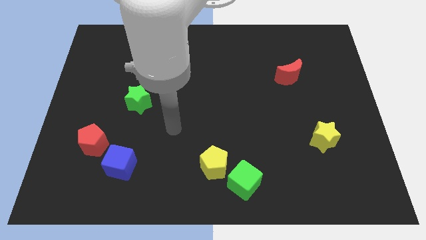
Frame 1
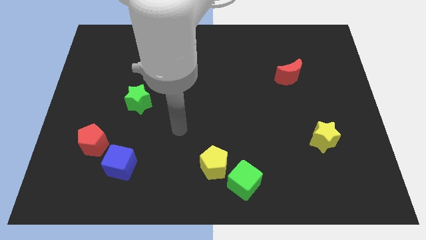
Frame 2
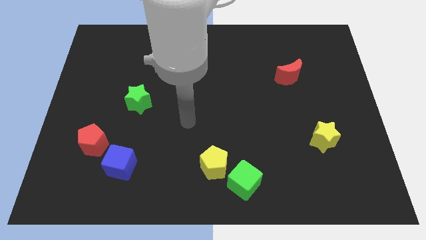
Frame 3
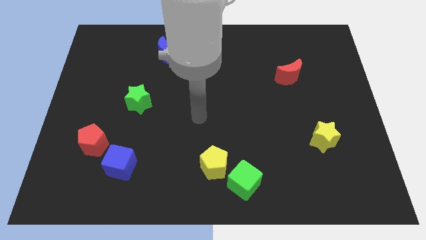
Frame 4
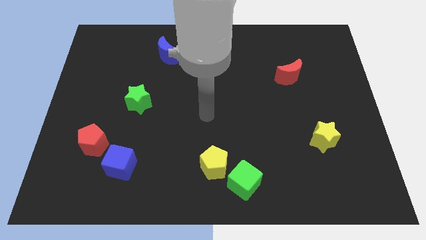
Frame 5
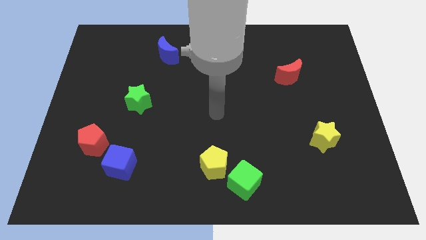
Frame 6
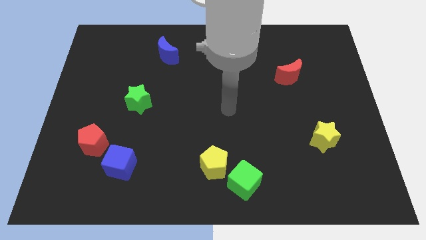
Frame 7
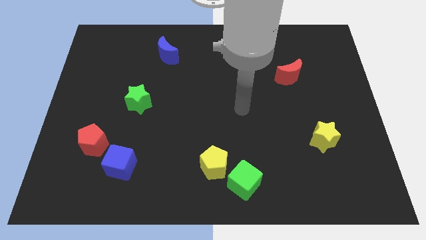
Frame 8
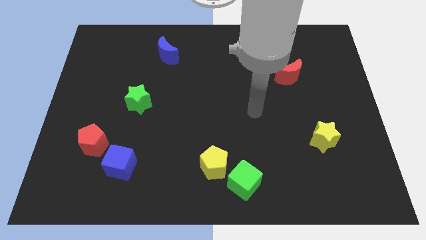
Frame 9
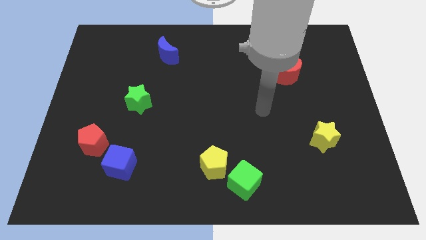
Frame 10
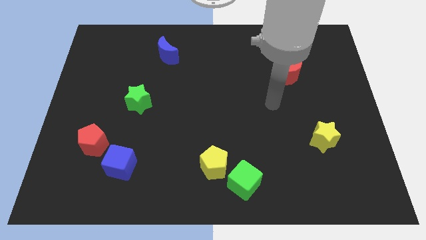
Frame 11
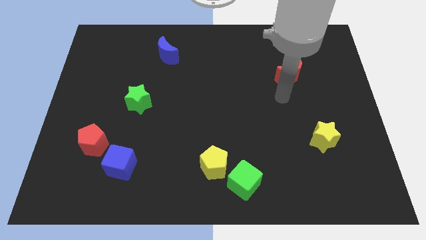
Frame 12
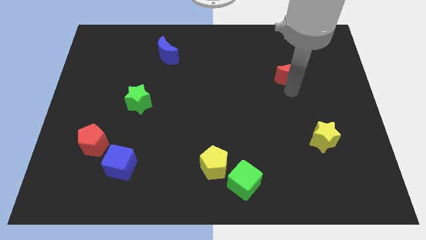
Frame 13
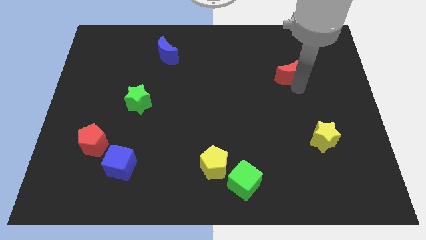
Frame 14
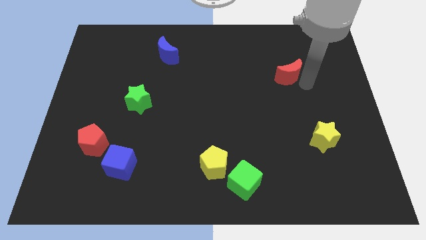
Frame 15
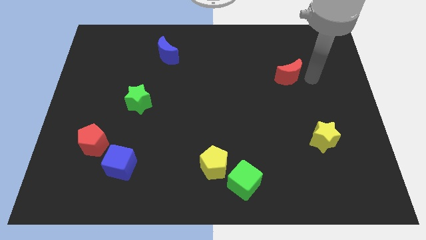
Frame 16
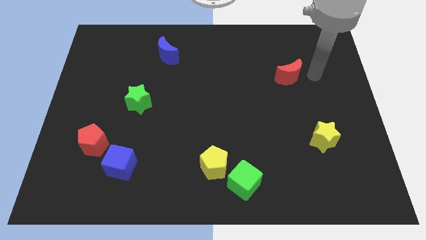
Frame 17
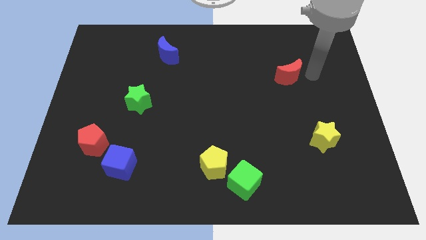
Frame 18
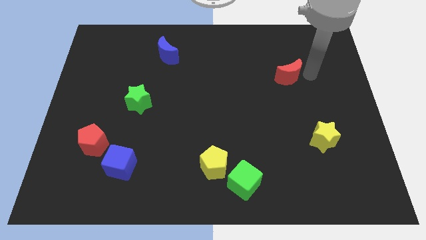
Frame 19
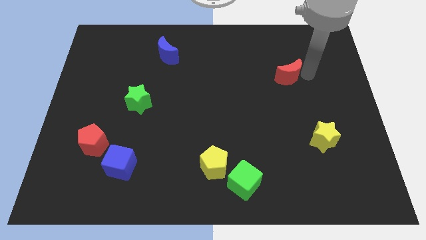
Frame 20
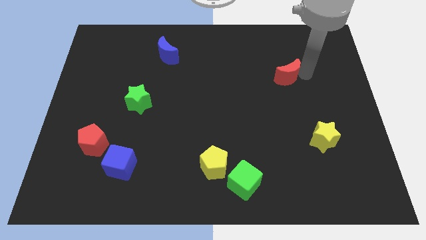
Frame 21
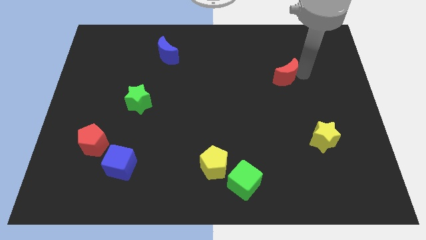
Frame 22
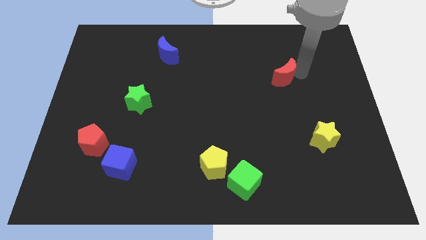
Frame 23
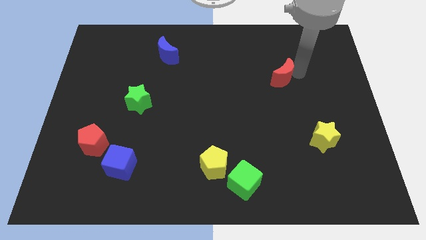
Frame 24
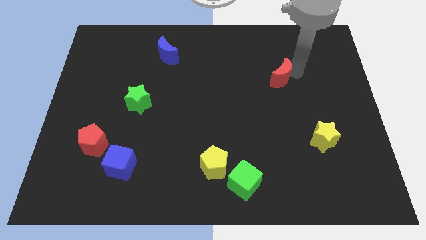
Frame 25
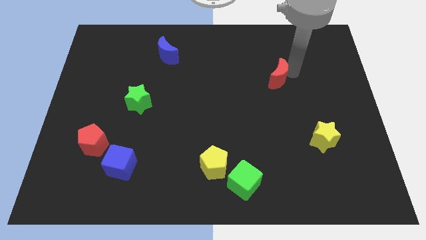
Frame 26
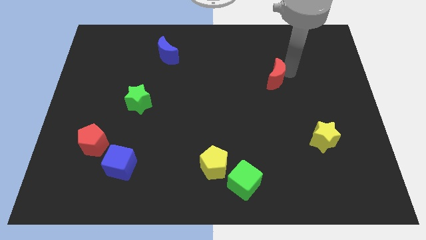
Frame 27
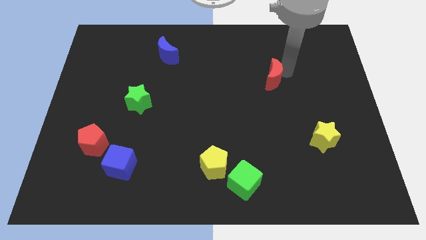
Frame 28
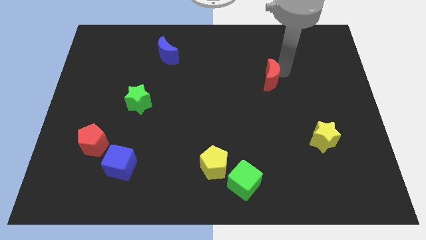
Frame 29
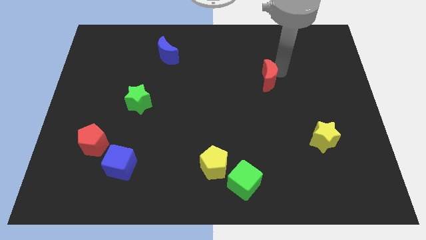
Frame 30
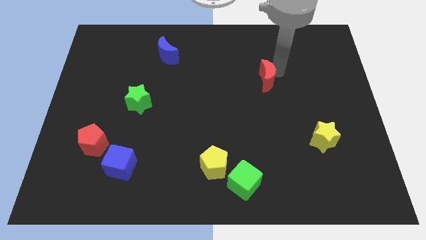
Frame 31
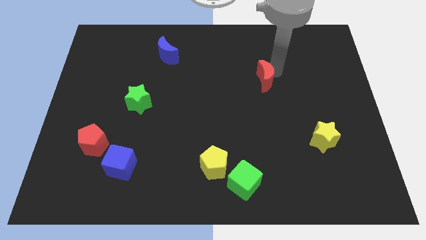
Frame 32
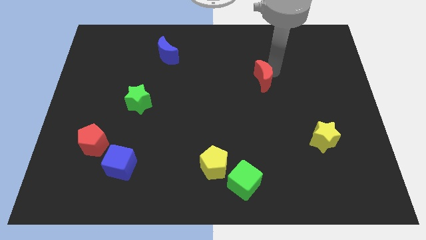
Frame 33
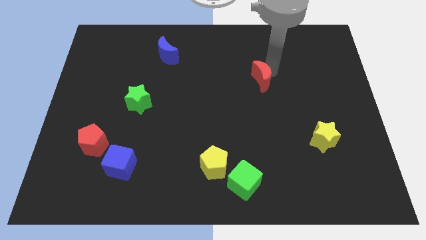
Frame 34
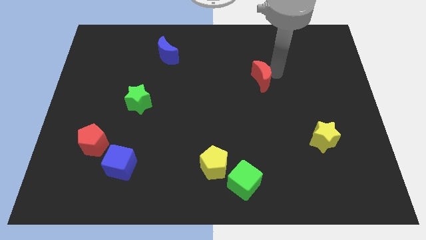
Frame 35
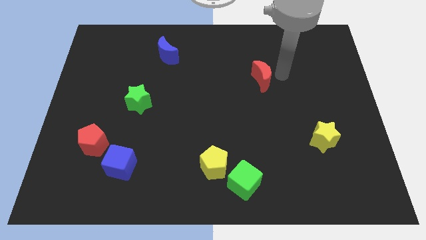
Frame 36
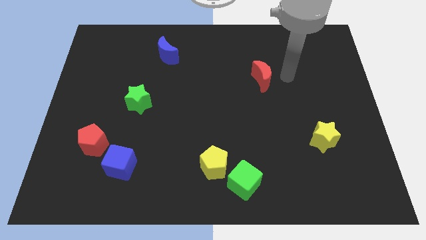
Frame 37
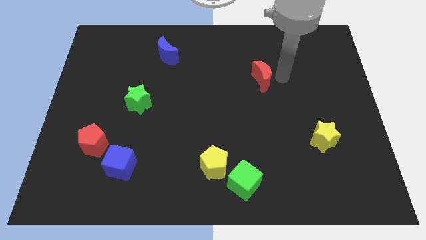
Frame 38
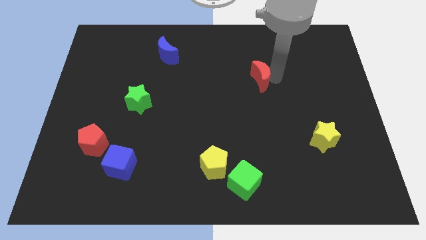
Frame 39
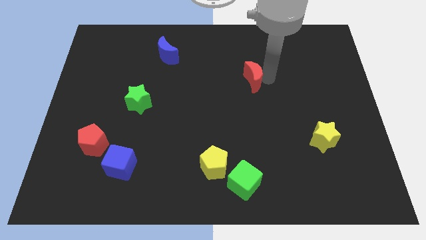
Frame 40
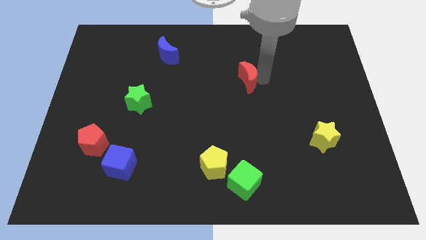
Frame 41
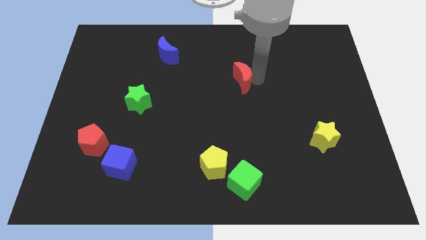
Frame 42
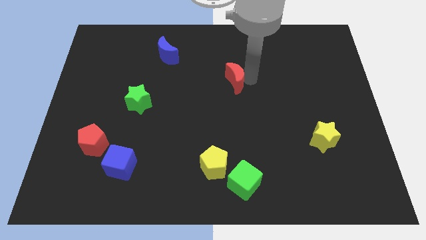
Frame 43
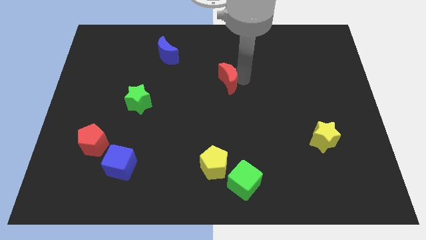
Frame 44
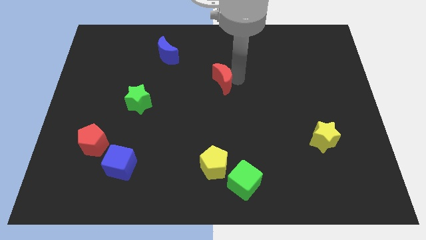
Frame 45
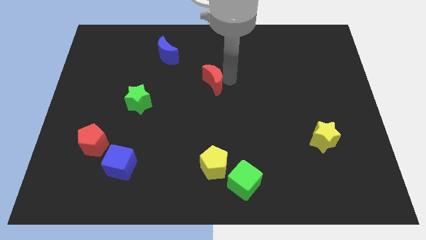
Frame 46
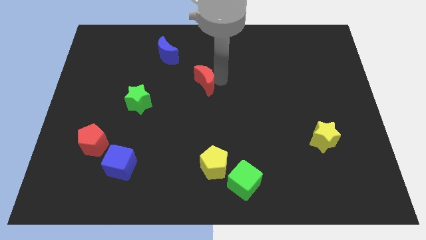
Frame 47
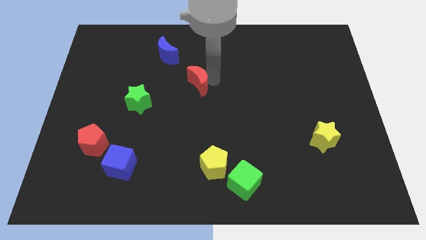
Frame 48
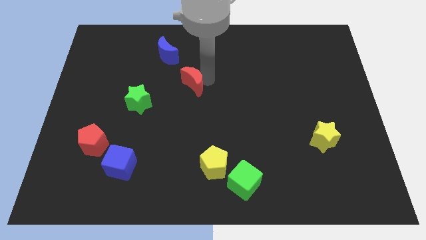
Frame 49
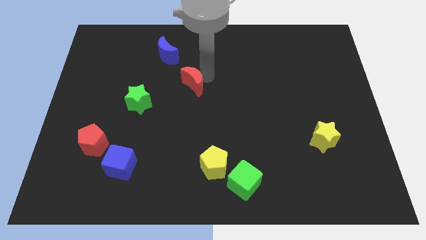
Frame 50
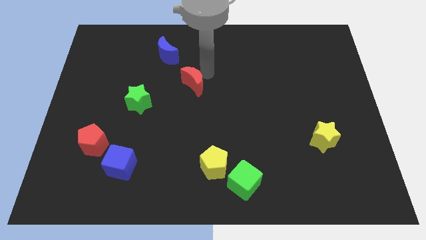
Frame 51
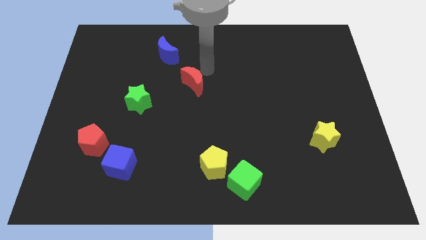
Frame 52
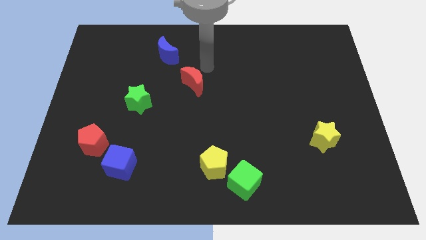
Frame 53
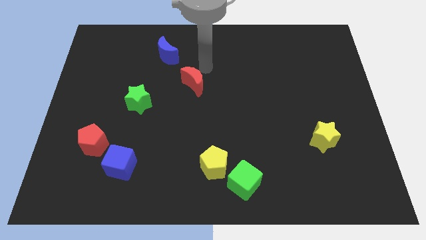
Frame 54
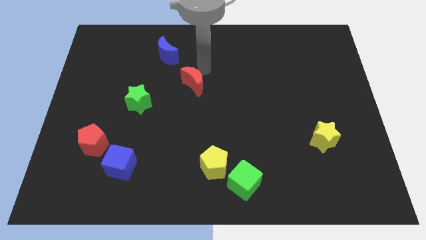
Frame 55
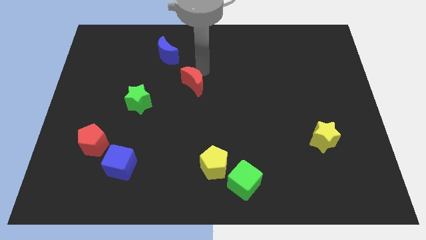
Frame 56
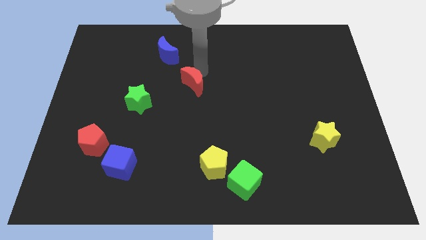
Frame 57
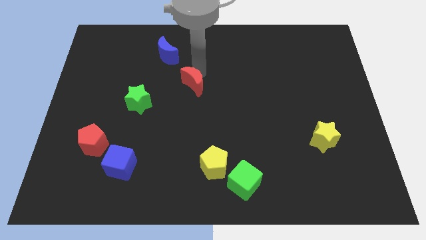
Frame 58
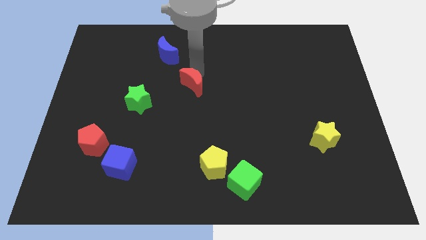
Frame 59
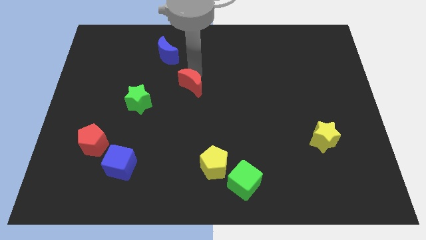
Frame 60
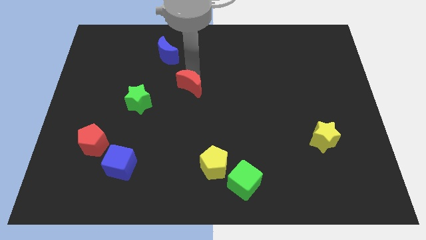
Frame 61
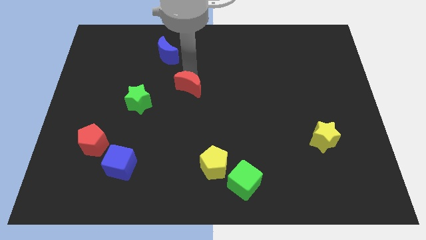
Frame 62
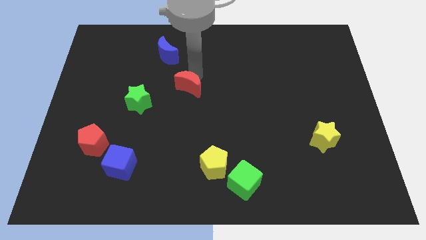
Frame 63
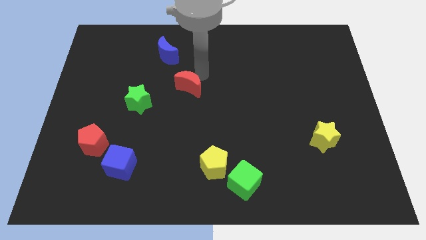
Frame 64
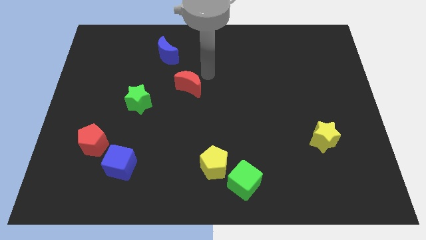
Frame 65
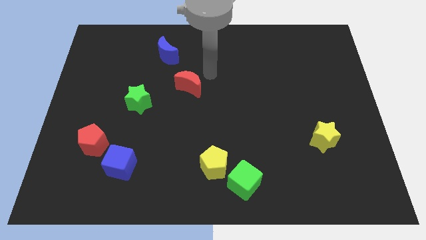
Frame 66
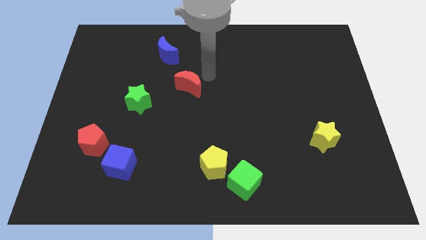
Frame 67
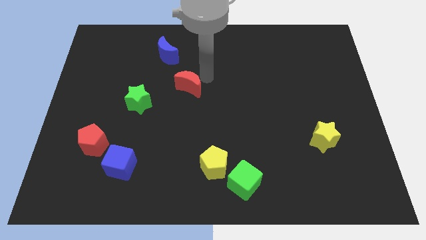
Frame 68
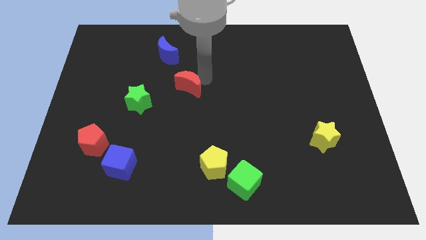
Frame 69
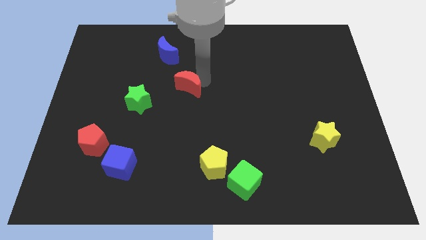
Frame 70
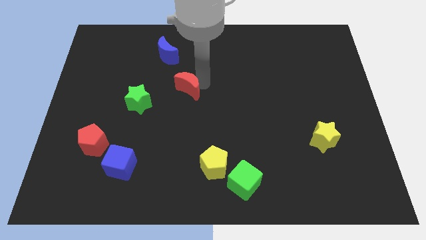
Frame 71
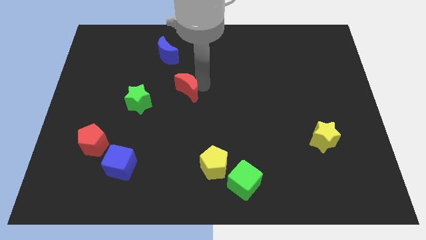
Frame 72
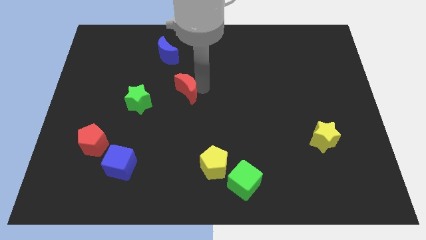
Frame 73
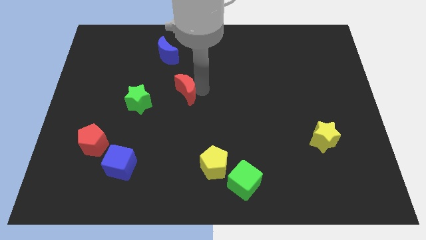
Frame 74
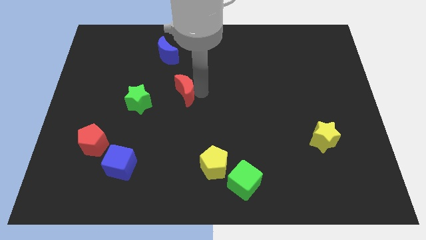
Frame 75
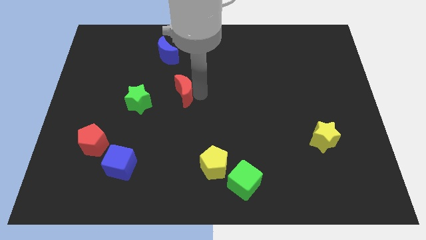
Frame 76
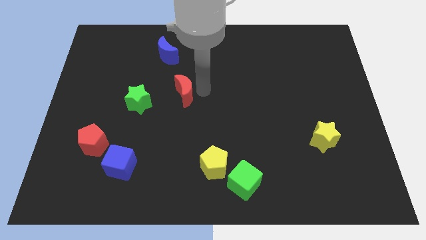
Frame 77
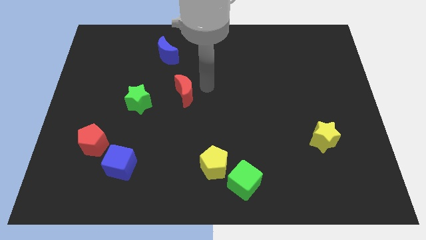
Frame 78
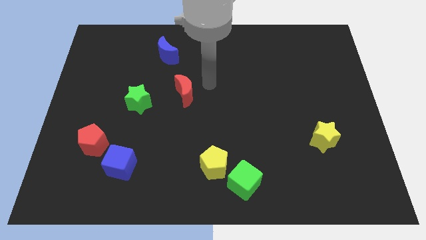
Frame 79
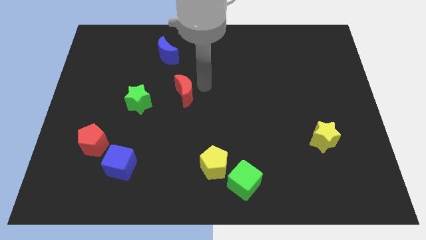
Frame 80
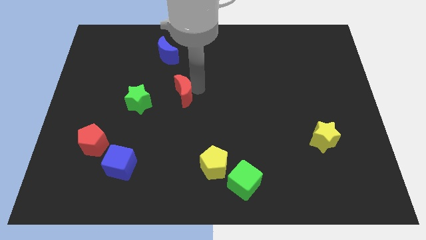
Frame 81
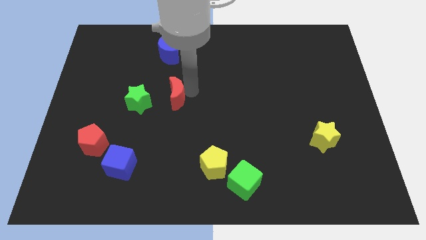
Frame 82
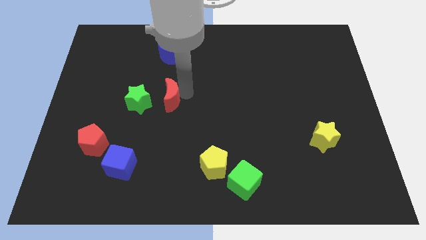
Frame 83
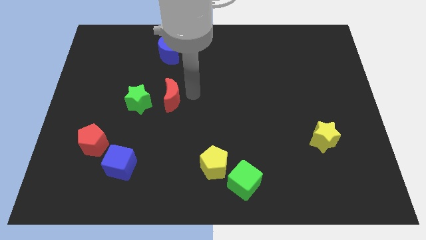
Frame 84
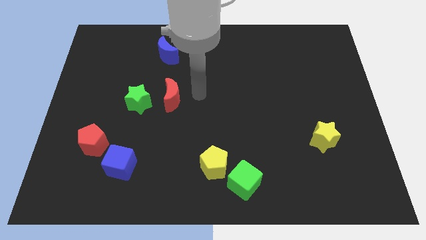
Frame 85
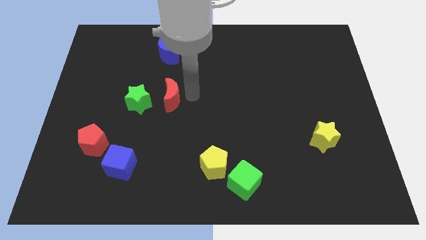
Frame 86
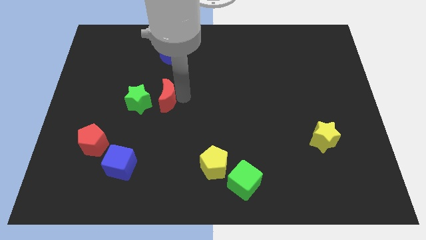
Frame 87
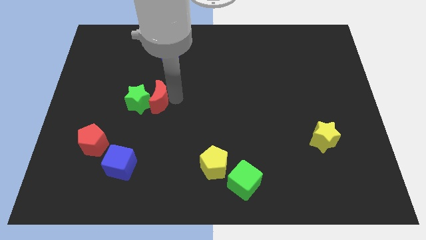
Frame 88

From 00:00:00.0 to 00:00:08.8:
slide the red moon towards the green star
